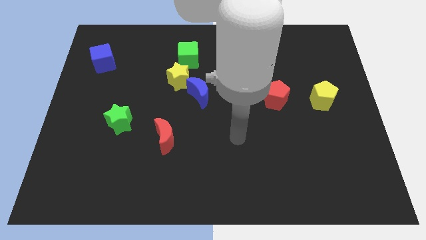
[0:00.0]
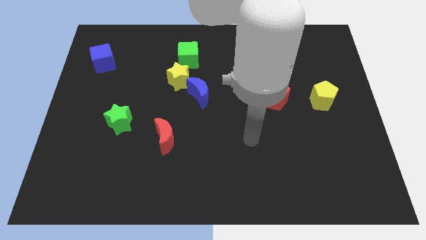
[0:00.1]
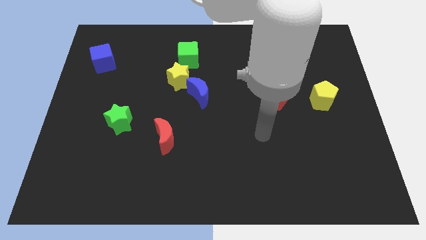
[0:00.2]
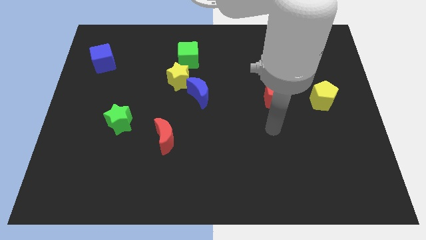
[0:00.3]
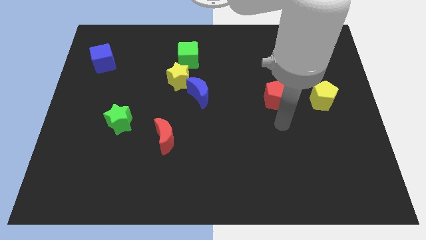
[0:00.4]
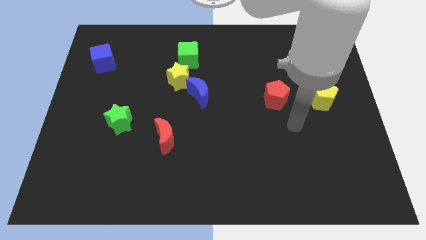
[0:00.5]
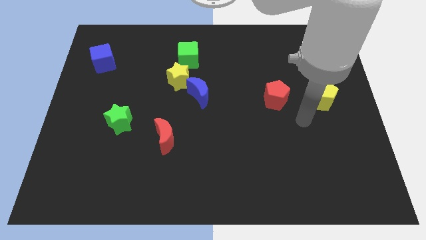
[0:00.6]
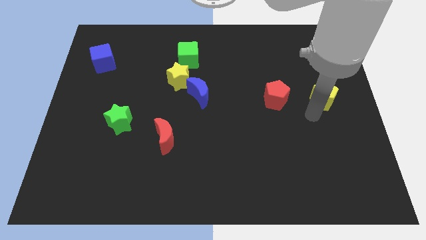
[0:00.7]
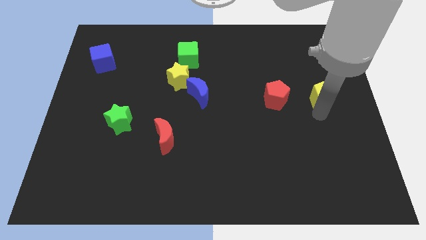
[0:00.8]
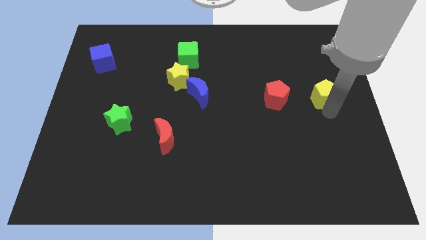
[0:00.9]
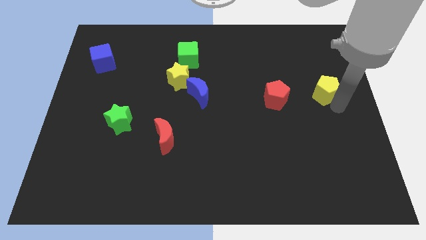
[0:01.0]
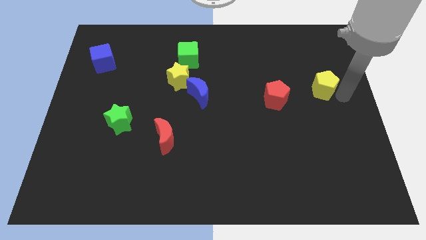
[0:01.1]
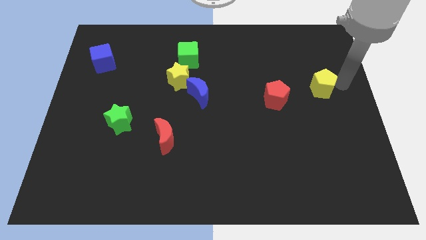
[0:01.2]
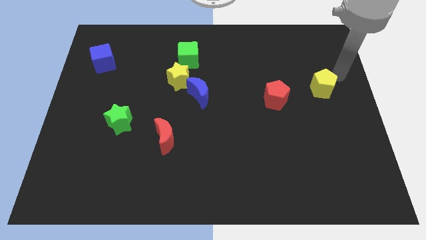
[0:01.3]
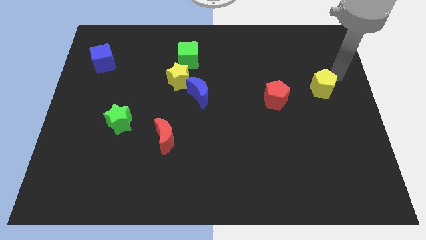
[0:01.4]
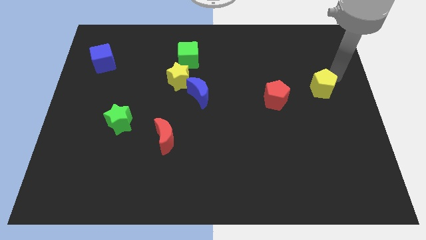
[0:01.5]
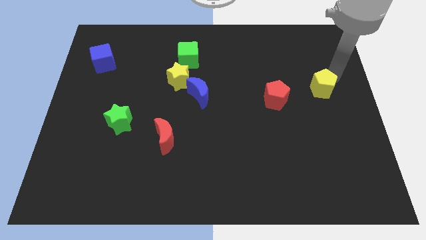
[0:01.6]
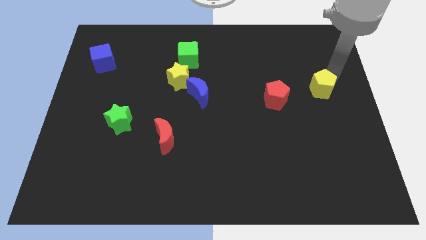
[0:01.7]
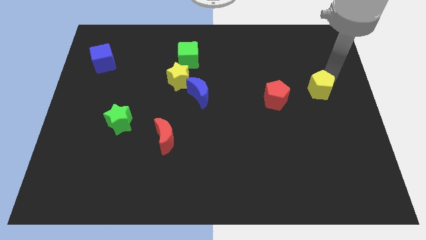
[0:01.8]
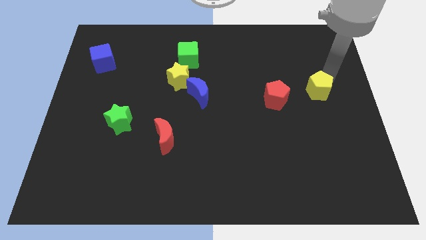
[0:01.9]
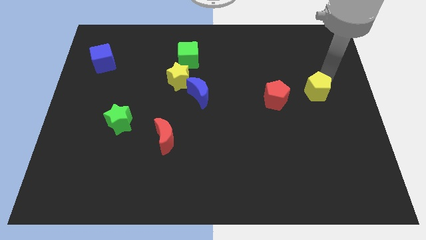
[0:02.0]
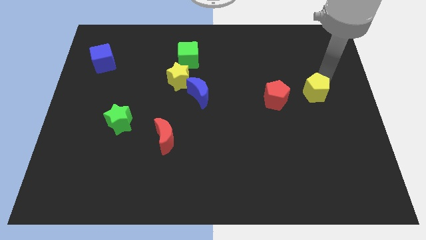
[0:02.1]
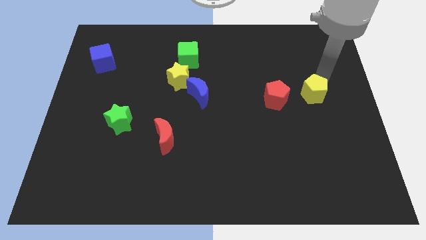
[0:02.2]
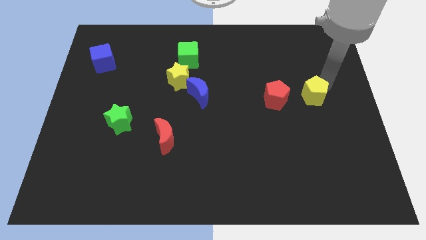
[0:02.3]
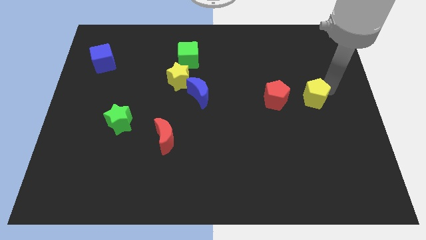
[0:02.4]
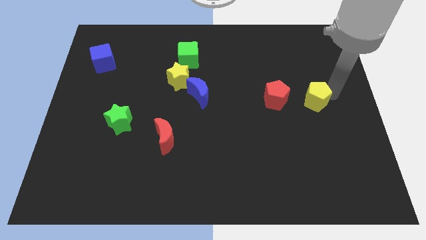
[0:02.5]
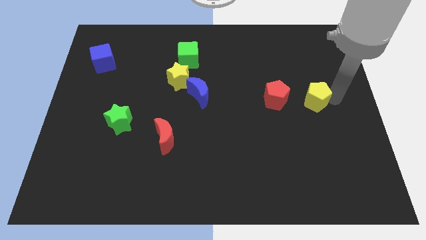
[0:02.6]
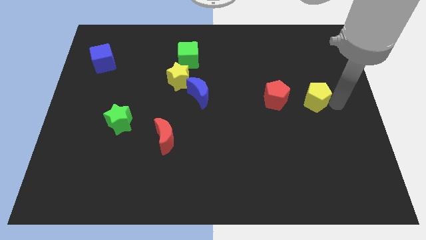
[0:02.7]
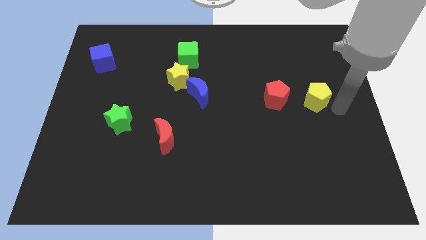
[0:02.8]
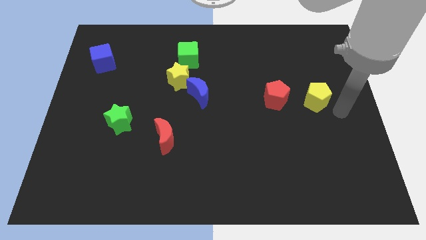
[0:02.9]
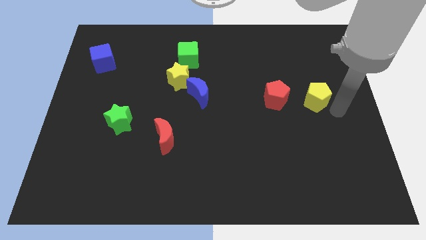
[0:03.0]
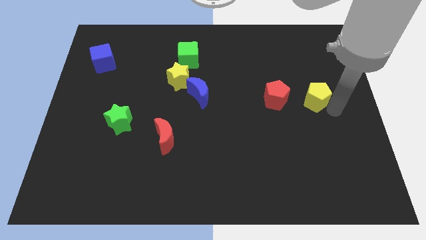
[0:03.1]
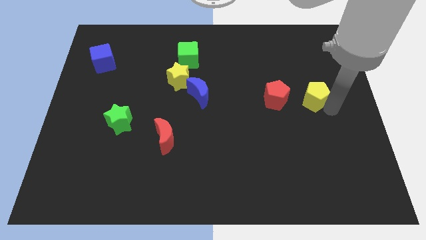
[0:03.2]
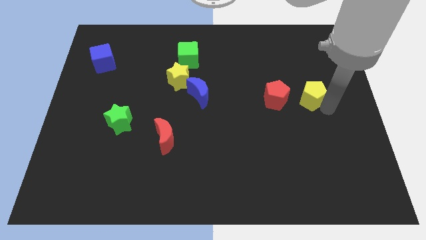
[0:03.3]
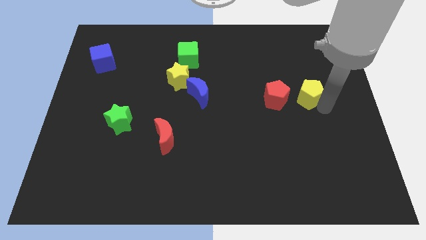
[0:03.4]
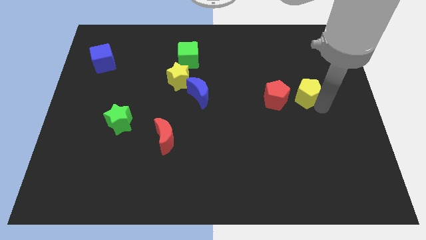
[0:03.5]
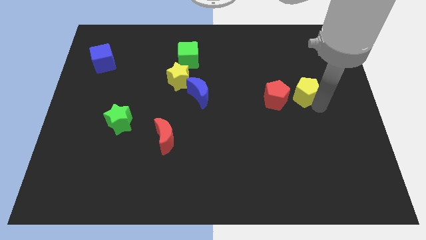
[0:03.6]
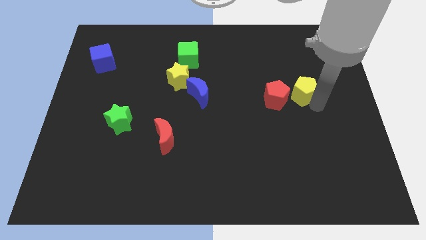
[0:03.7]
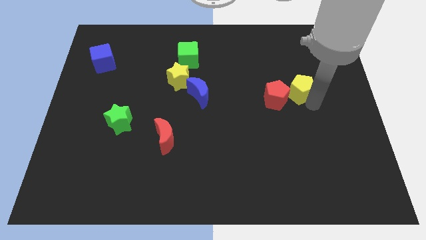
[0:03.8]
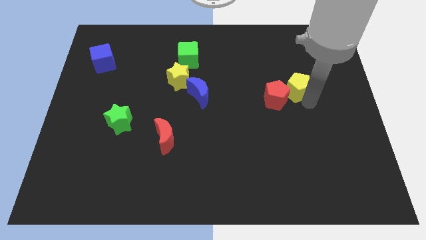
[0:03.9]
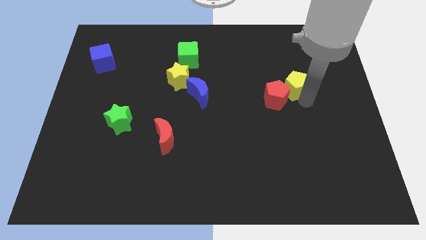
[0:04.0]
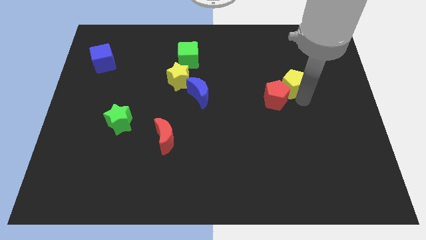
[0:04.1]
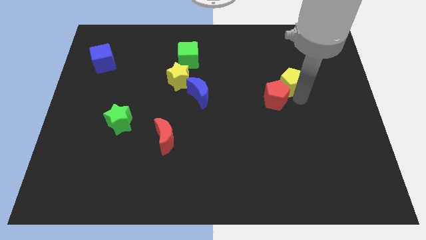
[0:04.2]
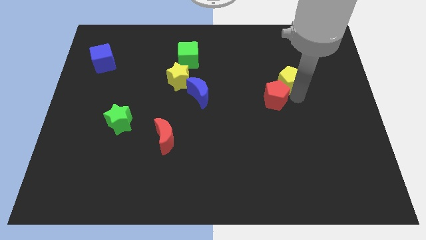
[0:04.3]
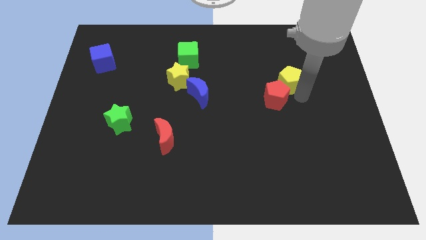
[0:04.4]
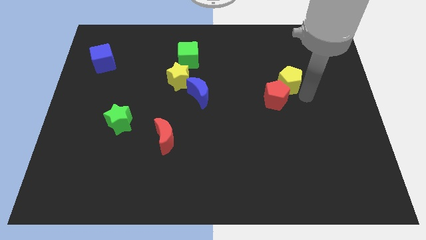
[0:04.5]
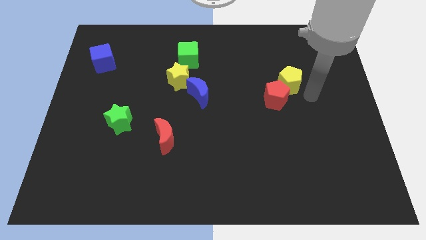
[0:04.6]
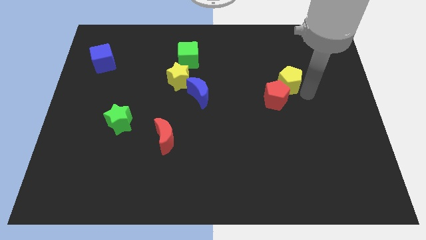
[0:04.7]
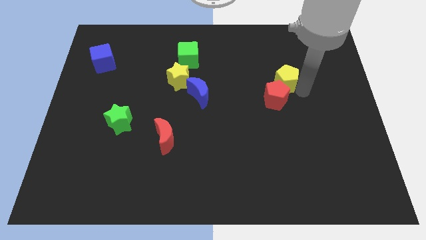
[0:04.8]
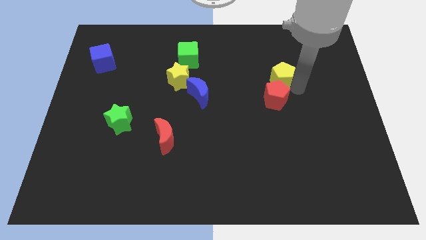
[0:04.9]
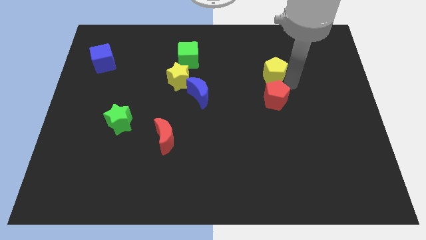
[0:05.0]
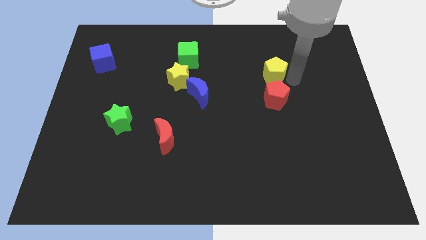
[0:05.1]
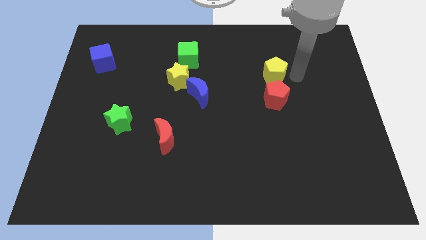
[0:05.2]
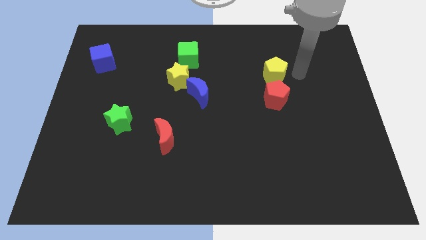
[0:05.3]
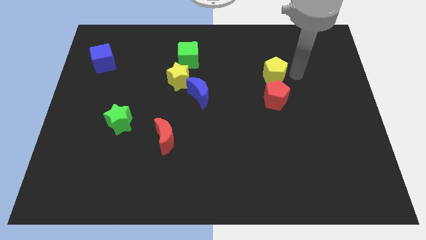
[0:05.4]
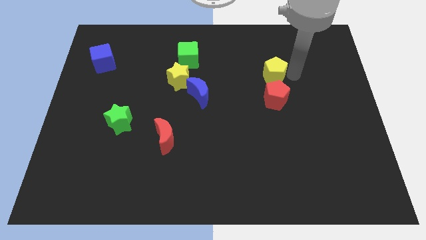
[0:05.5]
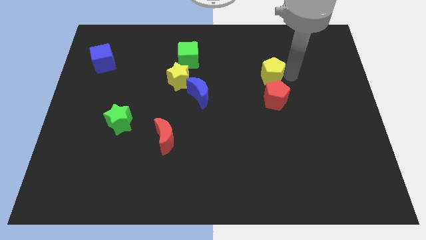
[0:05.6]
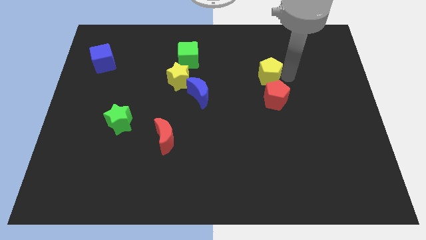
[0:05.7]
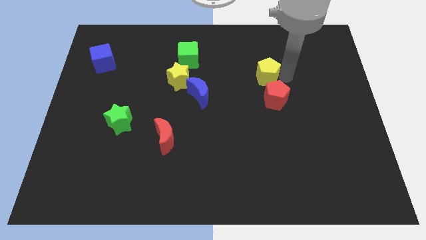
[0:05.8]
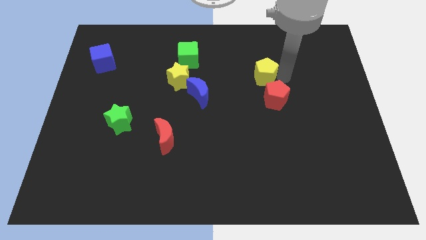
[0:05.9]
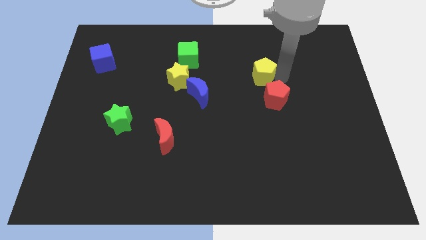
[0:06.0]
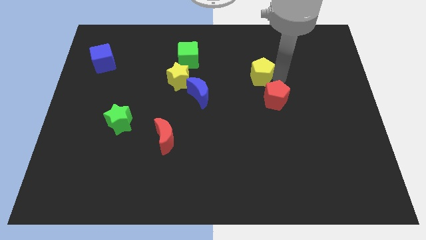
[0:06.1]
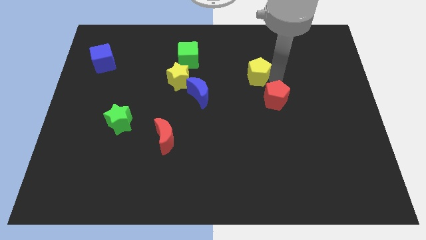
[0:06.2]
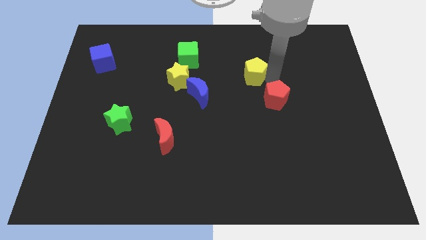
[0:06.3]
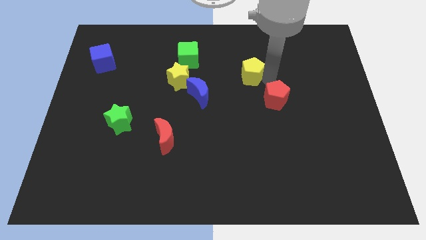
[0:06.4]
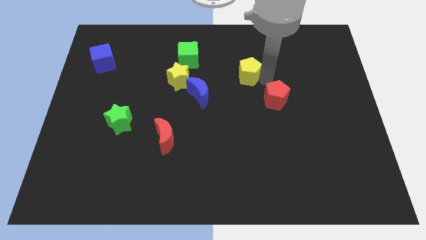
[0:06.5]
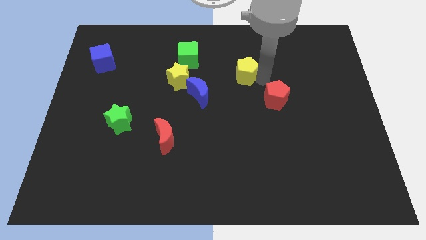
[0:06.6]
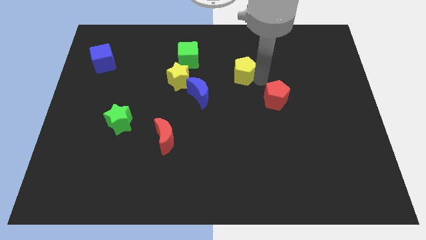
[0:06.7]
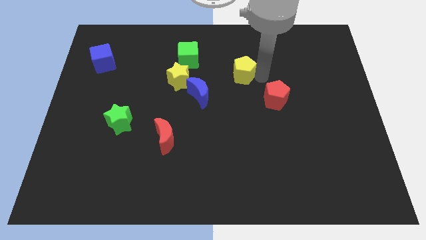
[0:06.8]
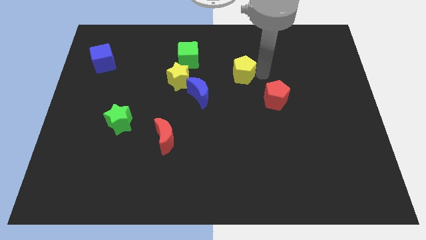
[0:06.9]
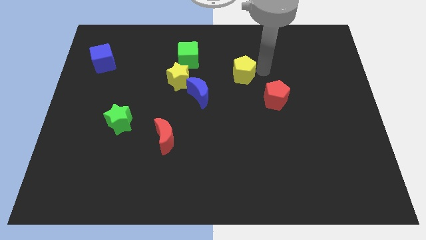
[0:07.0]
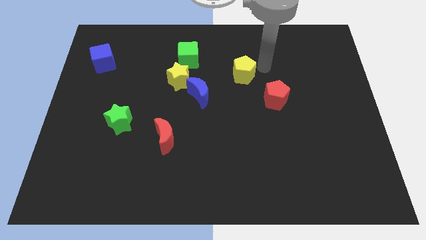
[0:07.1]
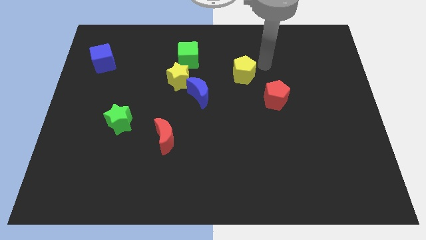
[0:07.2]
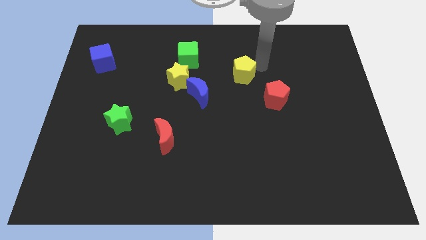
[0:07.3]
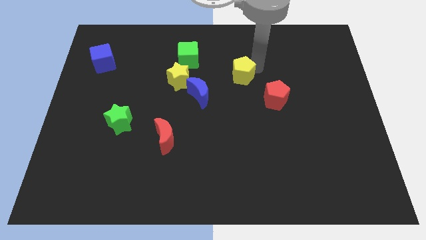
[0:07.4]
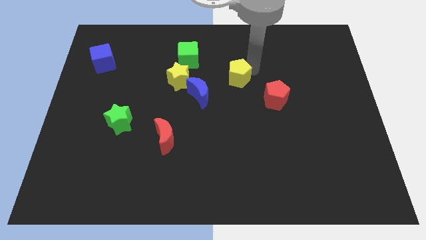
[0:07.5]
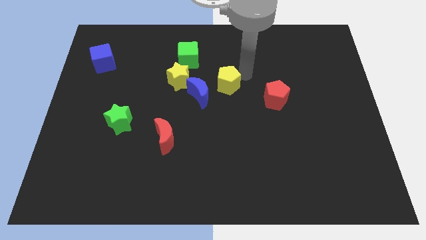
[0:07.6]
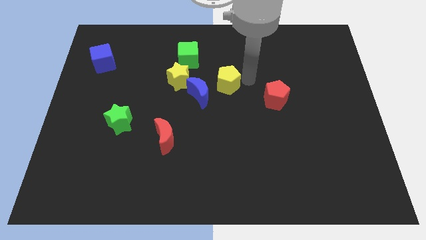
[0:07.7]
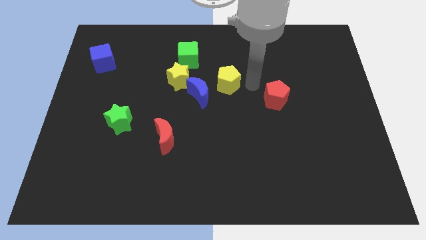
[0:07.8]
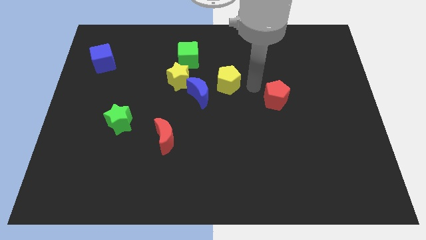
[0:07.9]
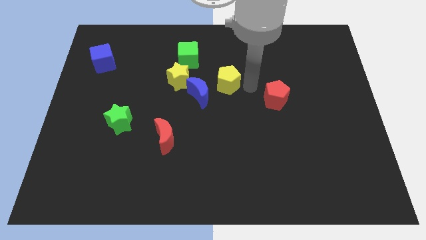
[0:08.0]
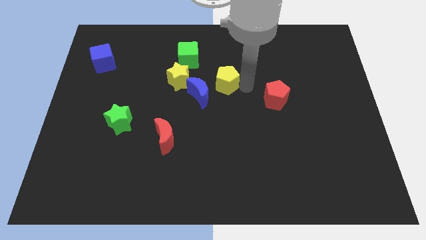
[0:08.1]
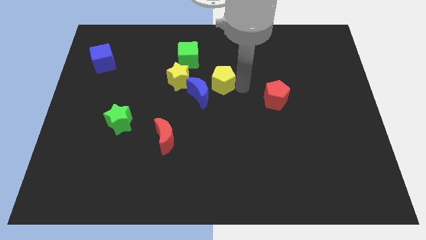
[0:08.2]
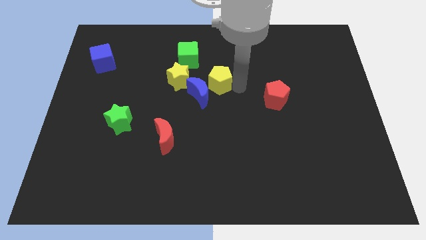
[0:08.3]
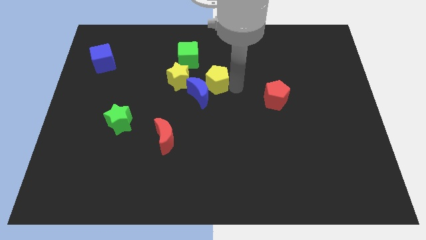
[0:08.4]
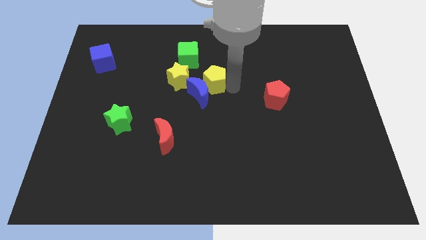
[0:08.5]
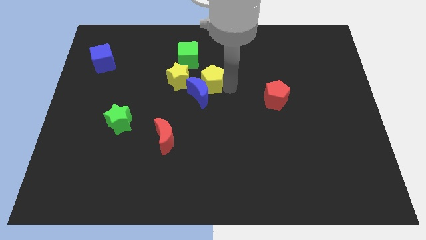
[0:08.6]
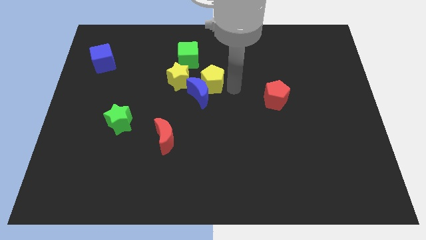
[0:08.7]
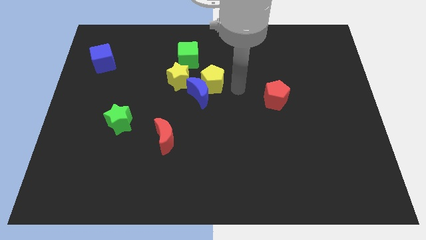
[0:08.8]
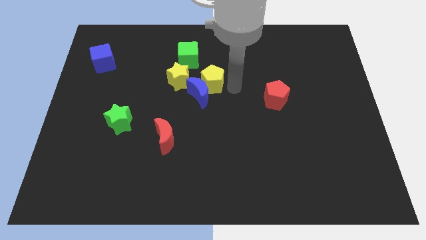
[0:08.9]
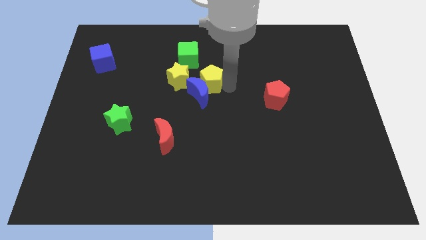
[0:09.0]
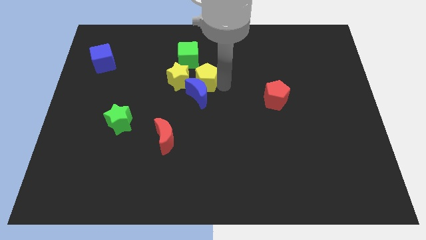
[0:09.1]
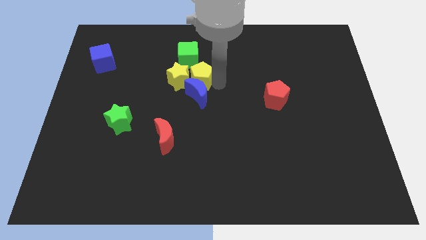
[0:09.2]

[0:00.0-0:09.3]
push the yellow pentagon to the yellow star
